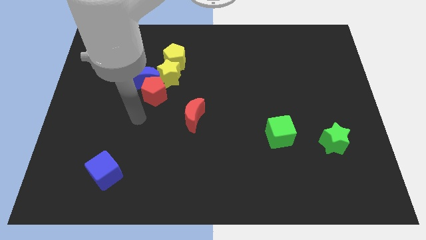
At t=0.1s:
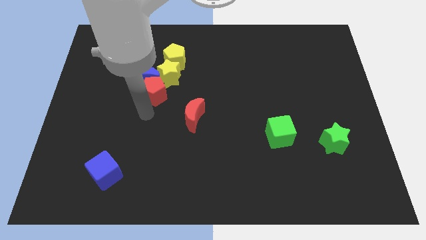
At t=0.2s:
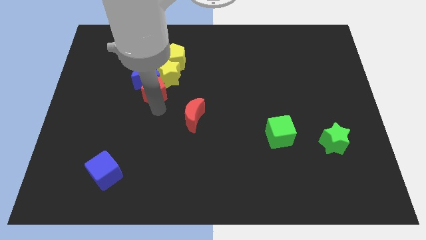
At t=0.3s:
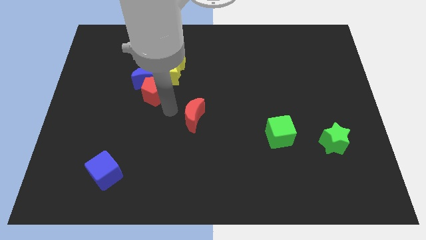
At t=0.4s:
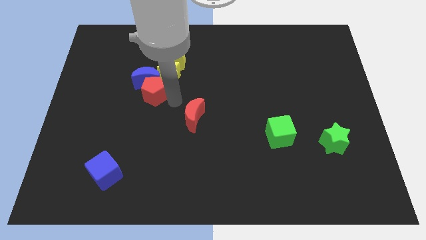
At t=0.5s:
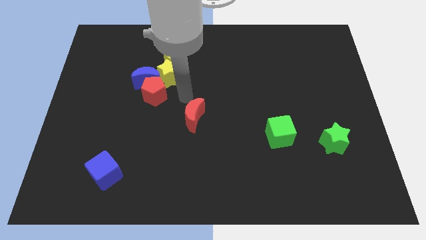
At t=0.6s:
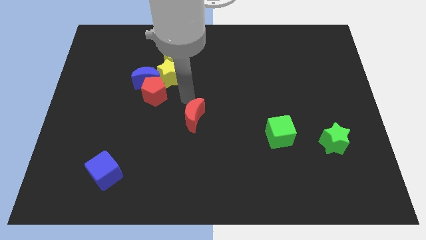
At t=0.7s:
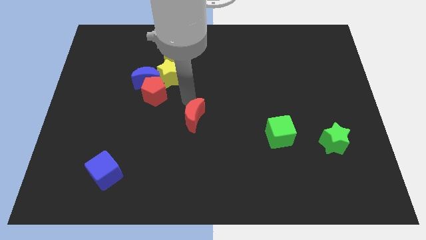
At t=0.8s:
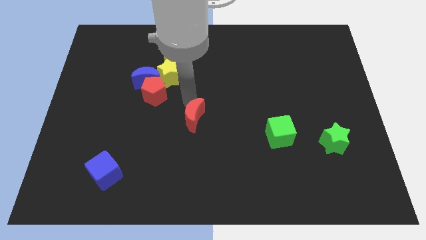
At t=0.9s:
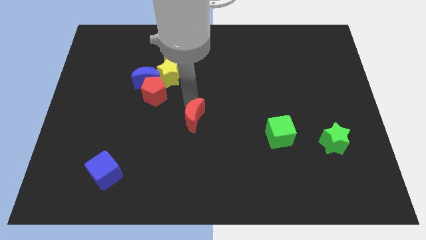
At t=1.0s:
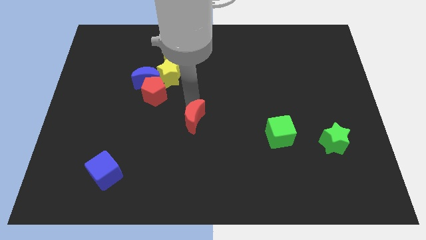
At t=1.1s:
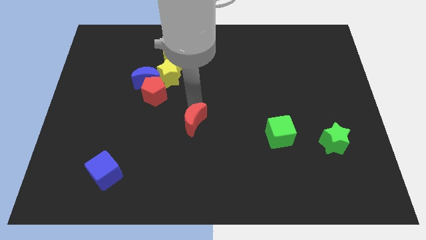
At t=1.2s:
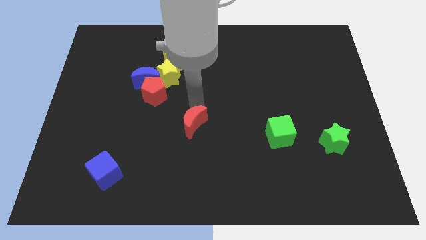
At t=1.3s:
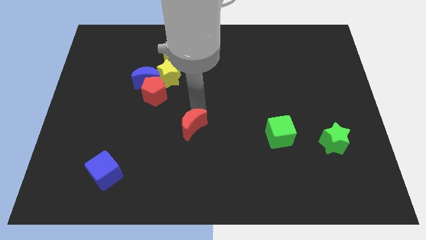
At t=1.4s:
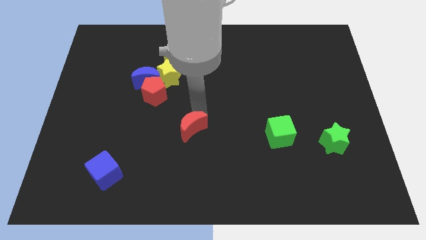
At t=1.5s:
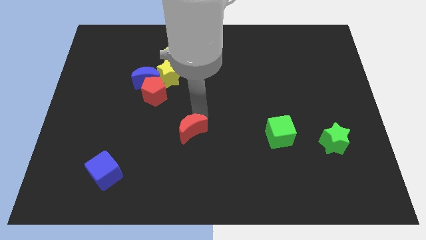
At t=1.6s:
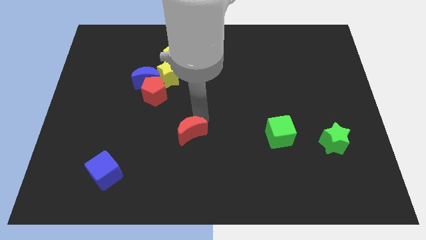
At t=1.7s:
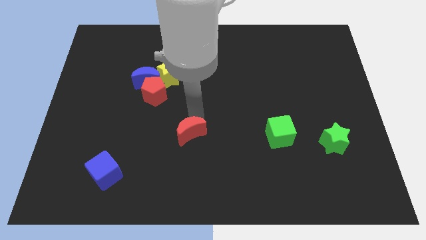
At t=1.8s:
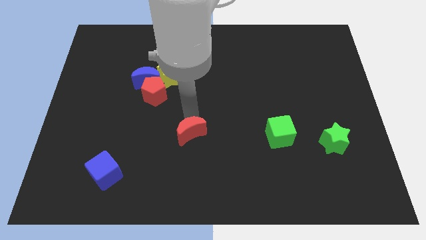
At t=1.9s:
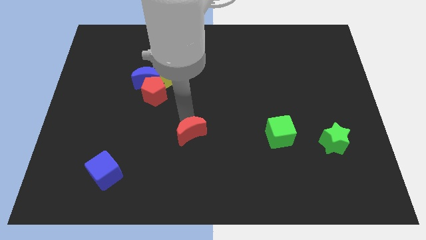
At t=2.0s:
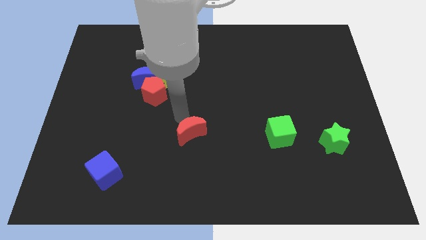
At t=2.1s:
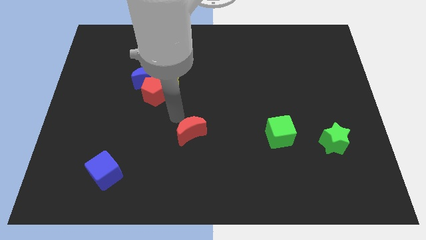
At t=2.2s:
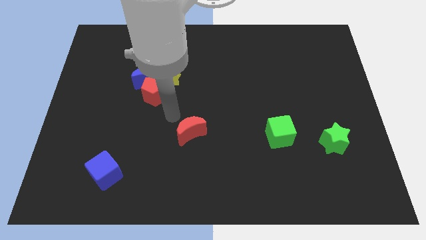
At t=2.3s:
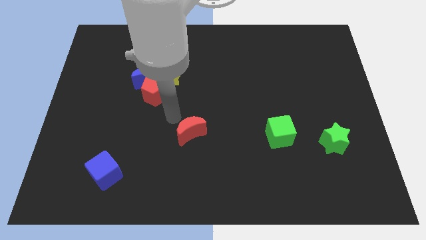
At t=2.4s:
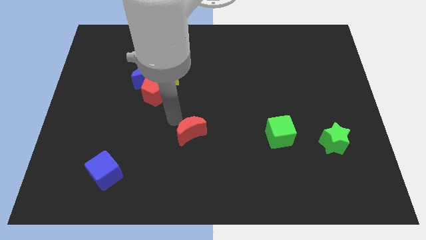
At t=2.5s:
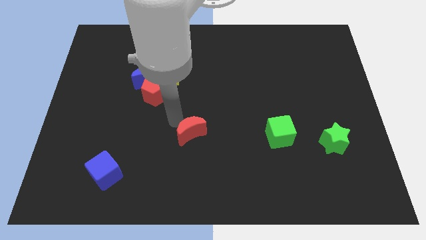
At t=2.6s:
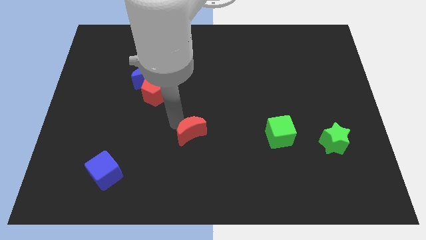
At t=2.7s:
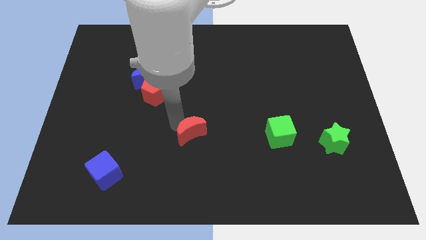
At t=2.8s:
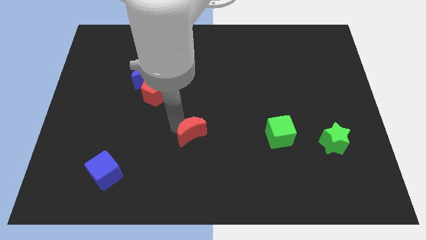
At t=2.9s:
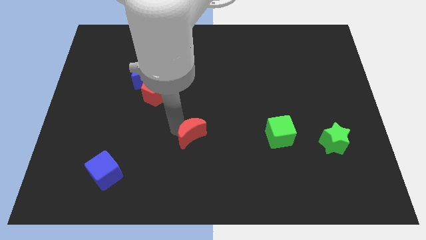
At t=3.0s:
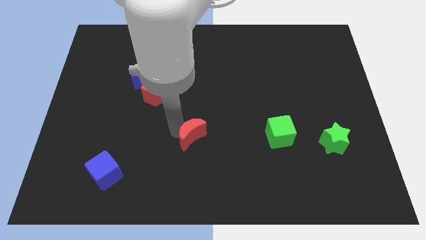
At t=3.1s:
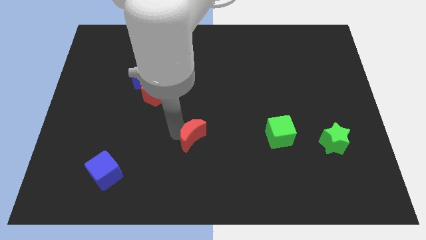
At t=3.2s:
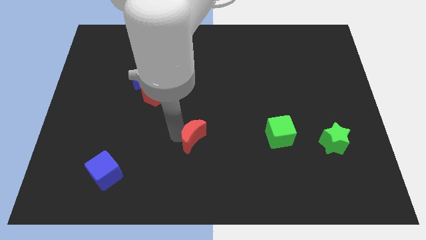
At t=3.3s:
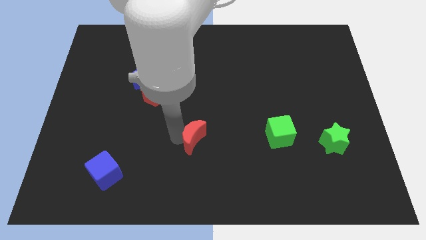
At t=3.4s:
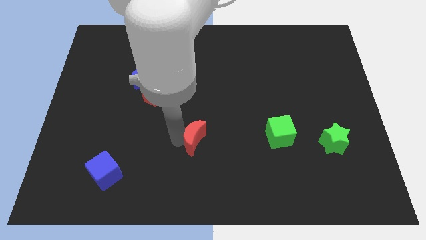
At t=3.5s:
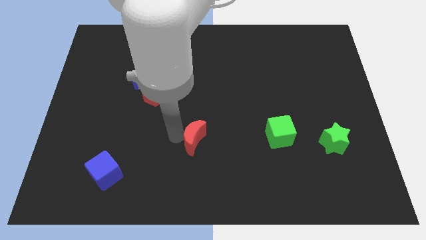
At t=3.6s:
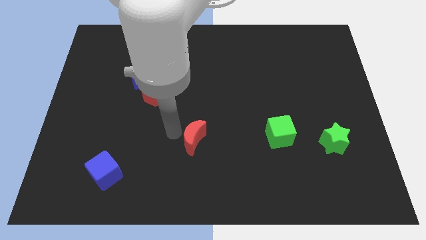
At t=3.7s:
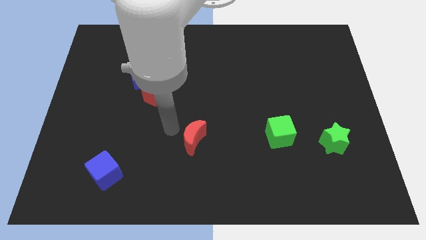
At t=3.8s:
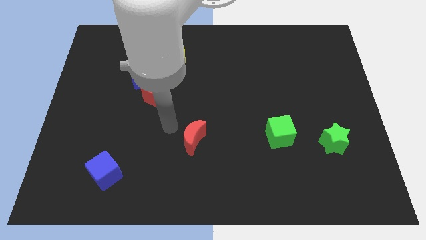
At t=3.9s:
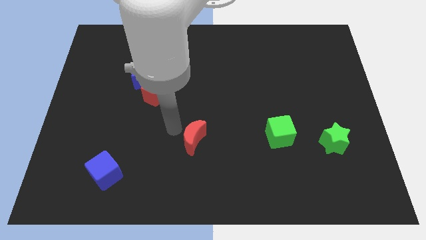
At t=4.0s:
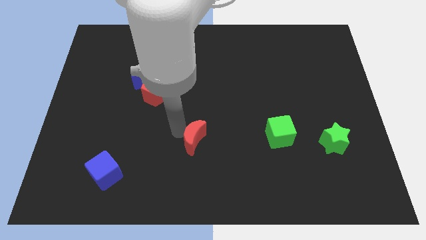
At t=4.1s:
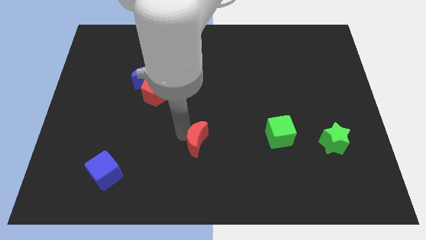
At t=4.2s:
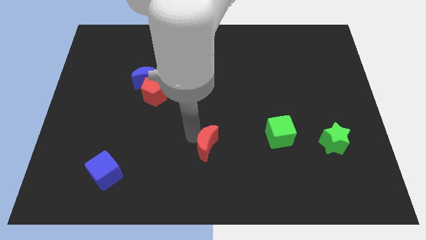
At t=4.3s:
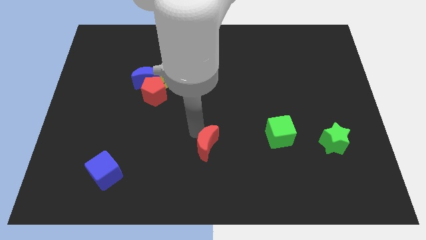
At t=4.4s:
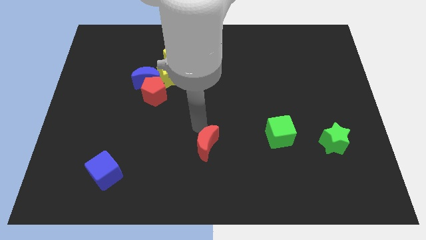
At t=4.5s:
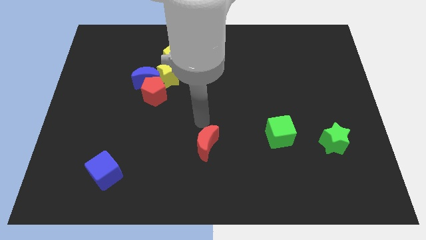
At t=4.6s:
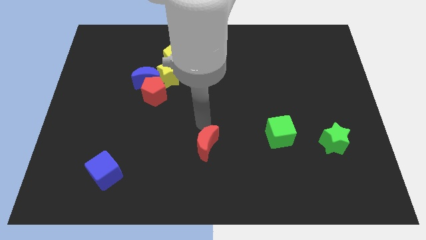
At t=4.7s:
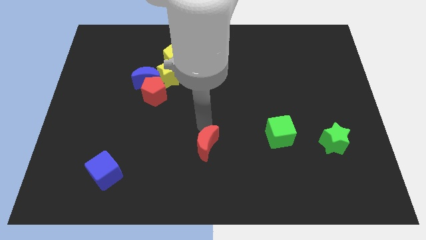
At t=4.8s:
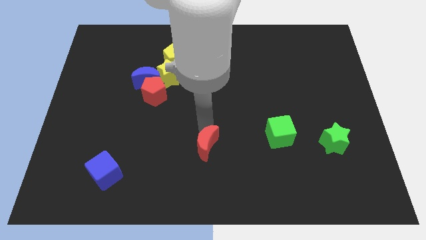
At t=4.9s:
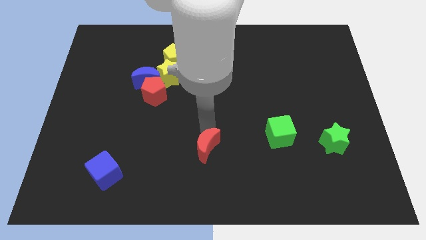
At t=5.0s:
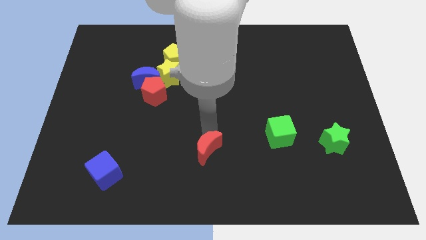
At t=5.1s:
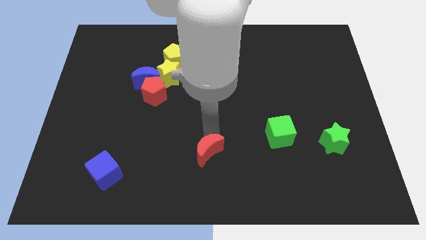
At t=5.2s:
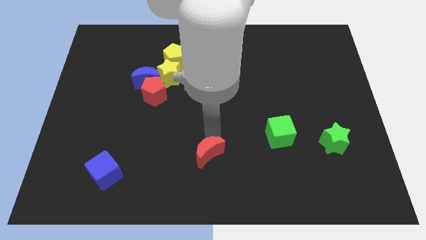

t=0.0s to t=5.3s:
move the red moon to the bottom side
